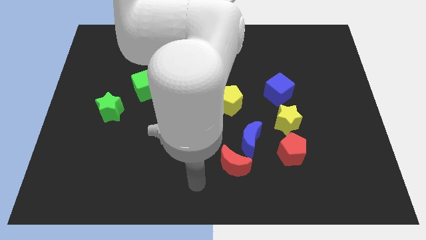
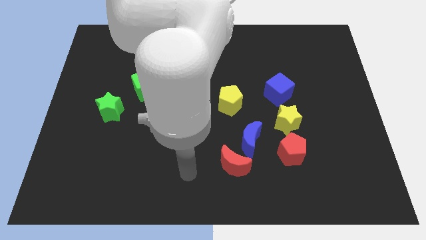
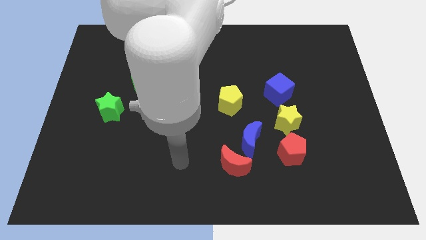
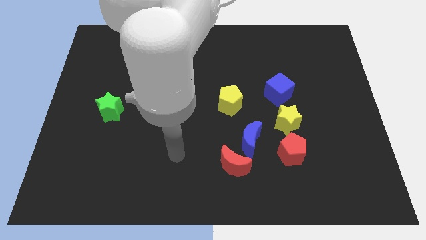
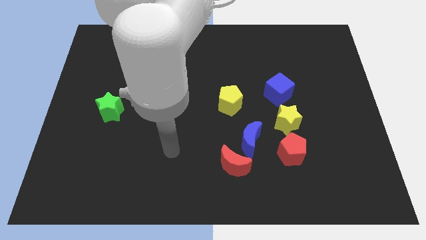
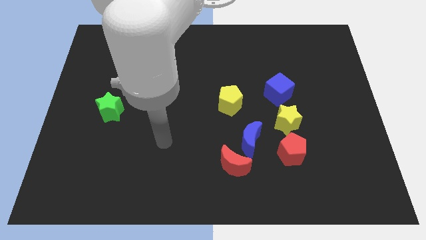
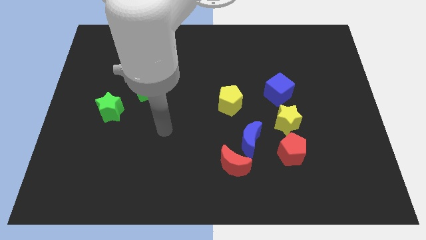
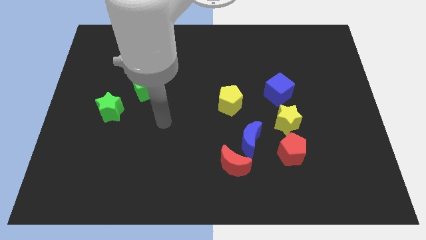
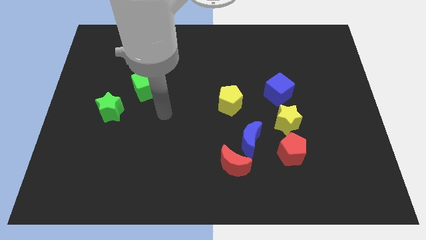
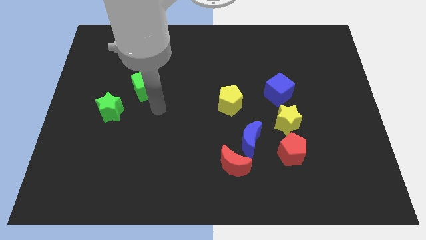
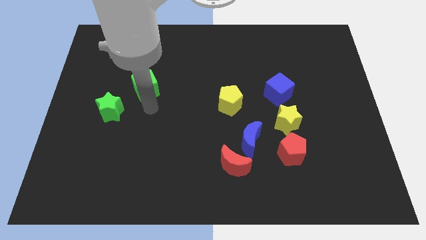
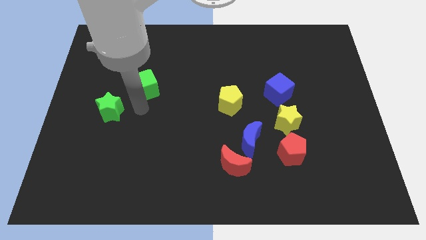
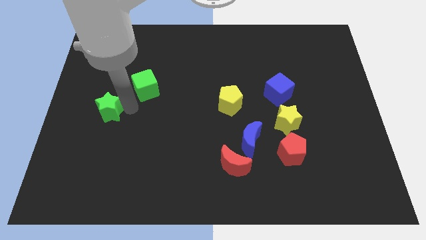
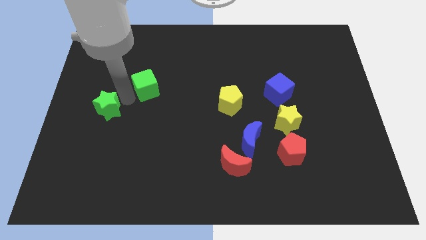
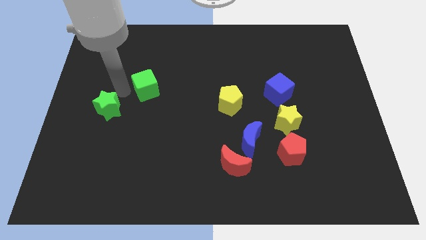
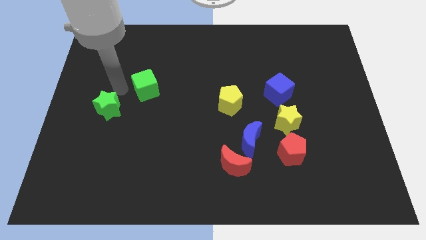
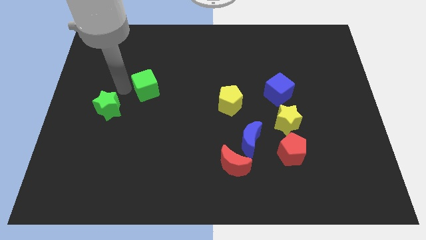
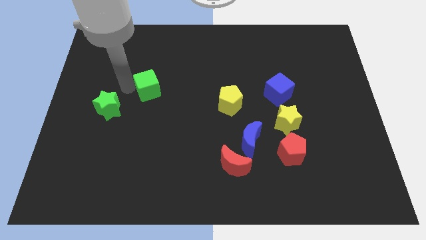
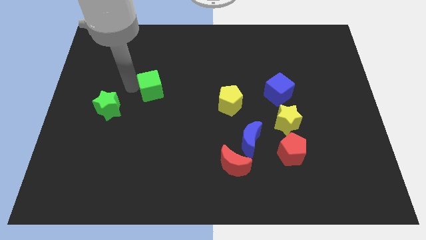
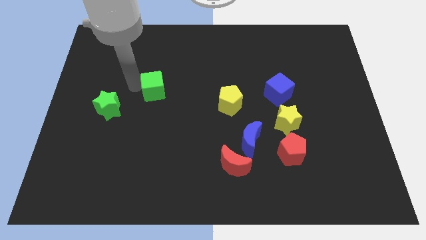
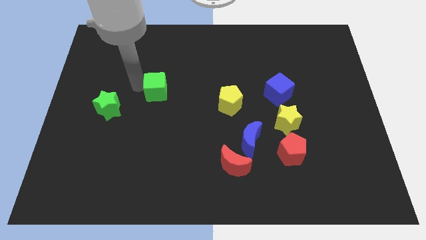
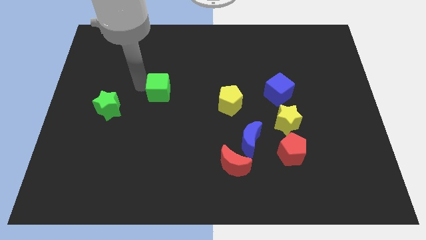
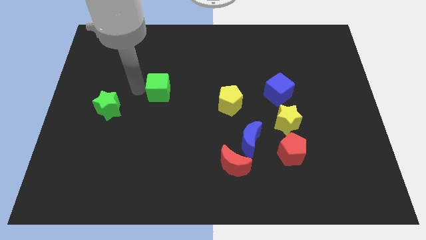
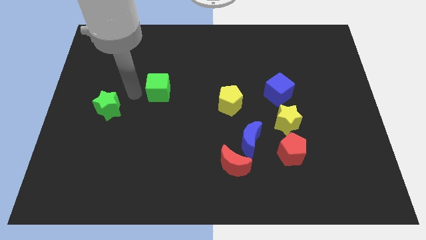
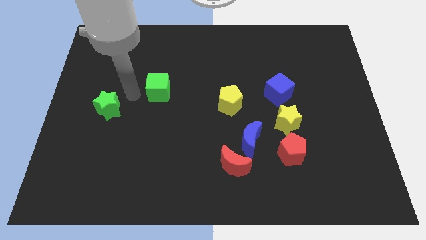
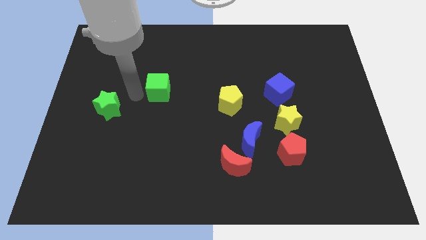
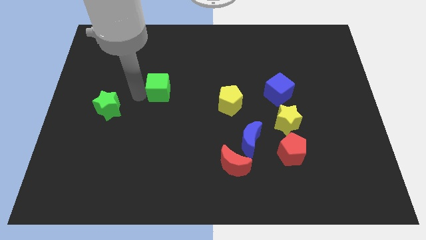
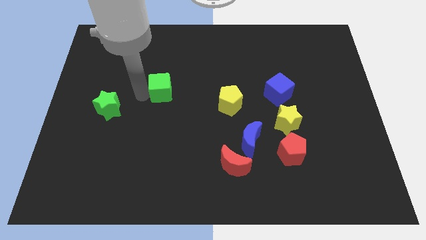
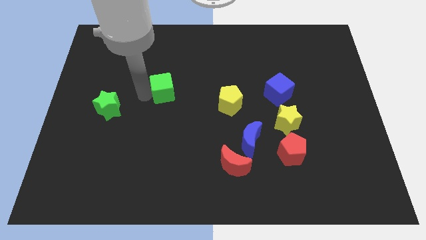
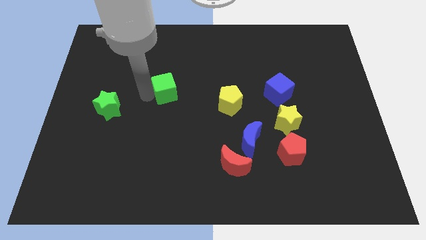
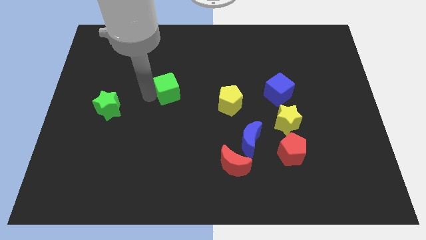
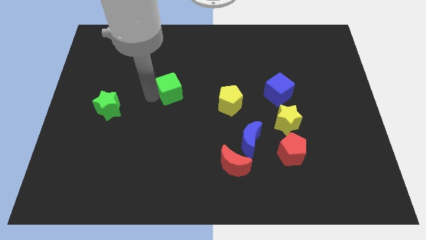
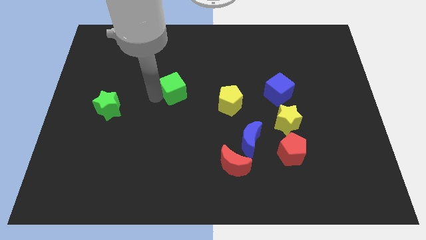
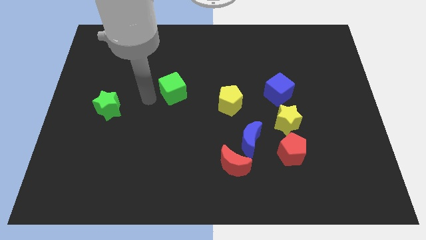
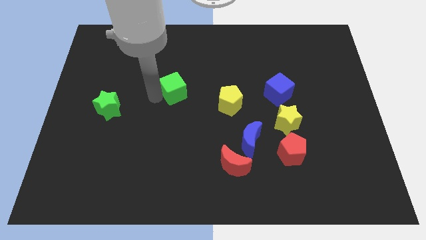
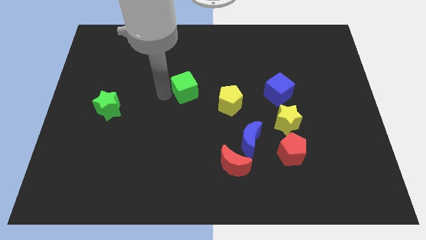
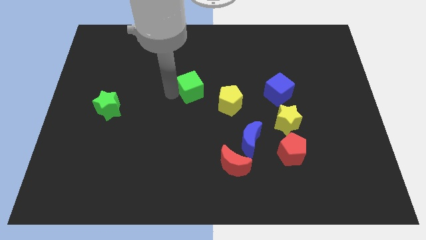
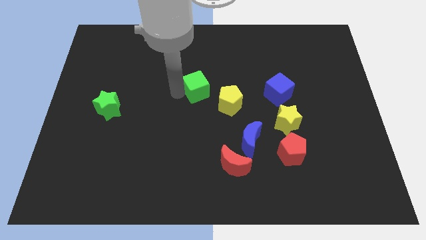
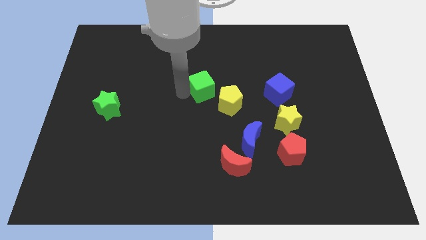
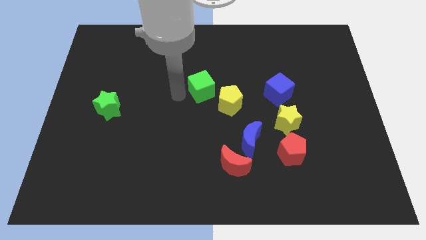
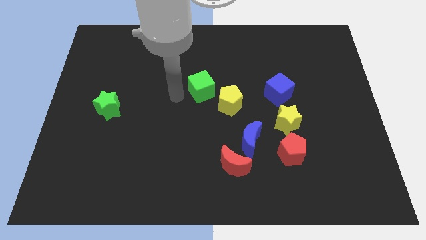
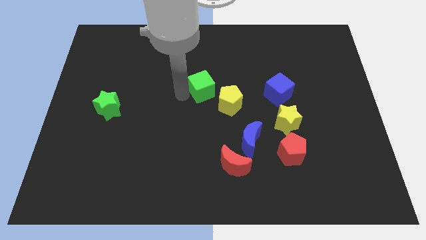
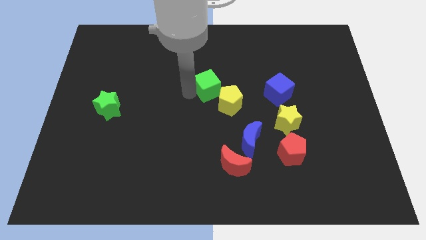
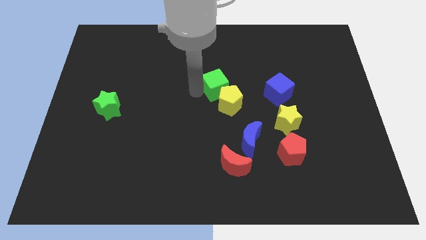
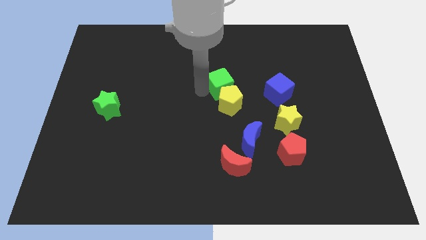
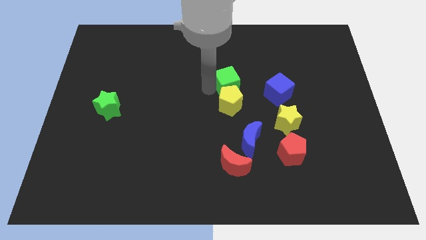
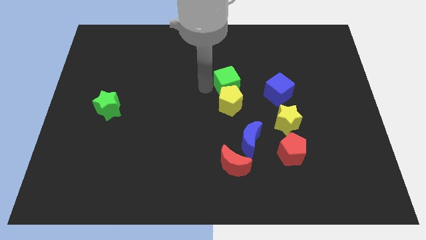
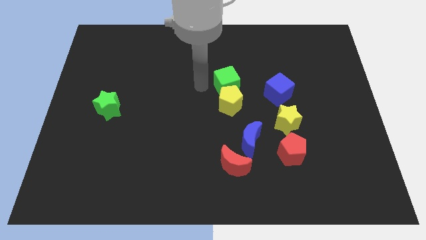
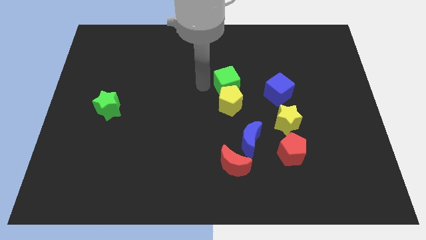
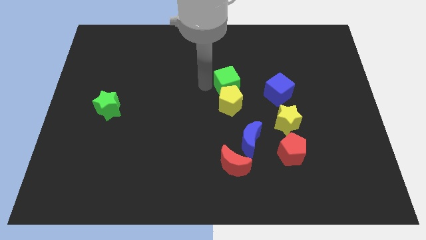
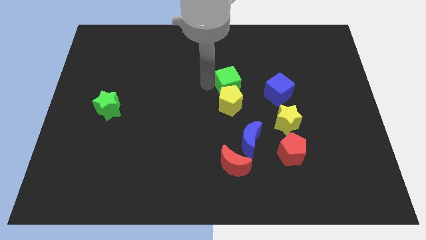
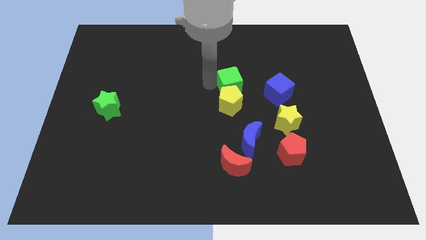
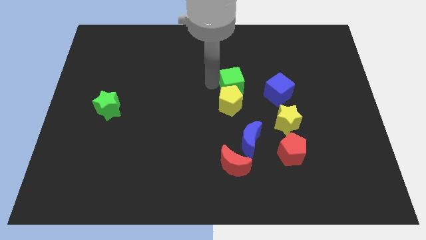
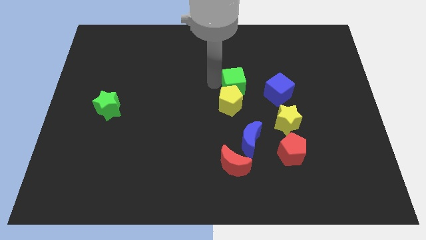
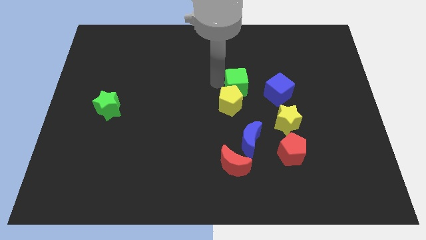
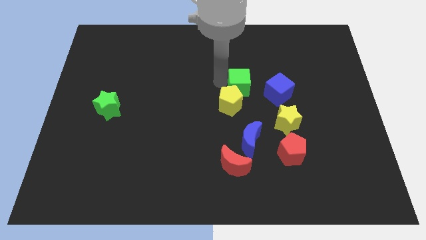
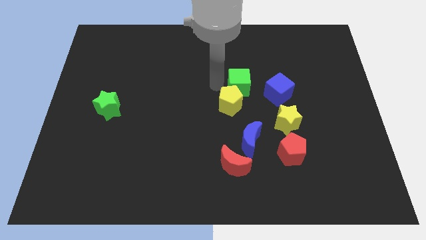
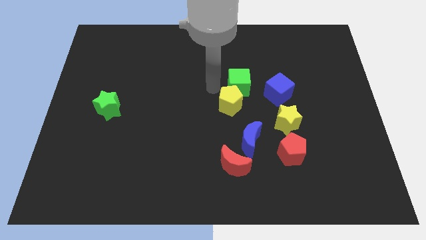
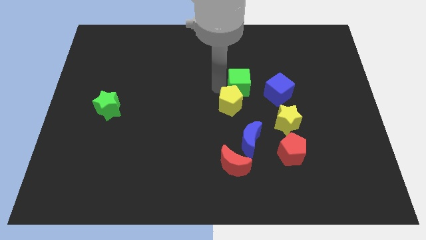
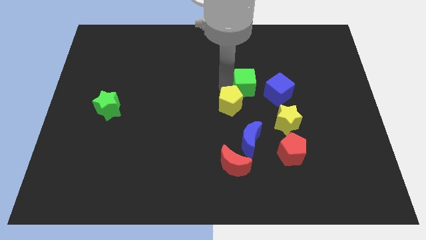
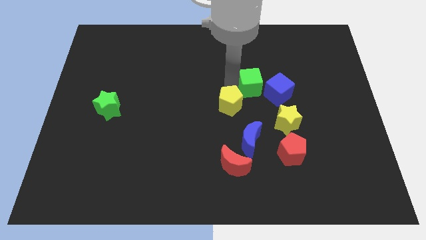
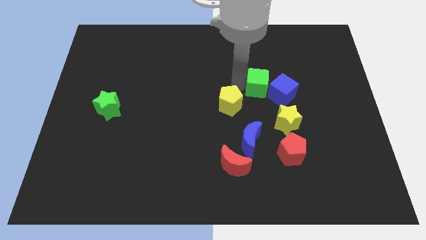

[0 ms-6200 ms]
slide the green cube close to the blue cube

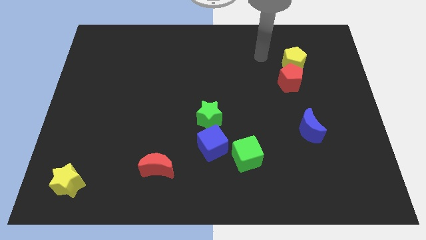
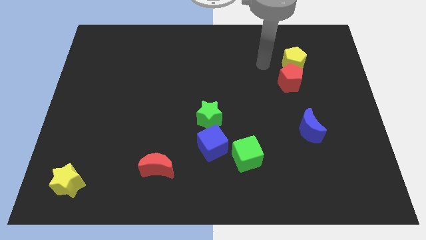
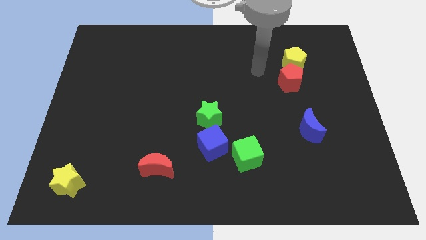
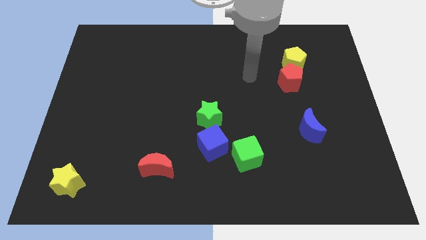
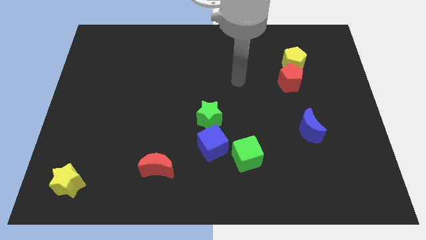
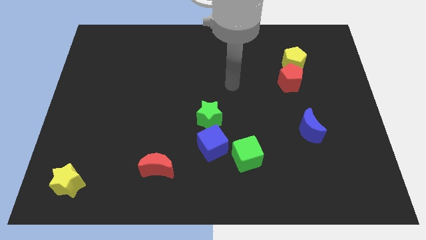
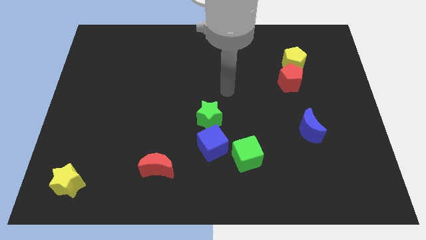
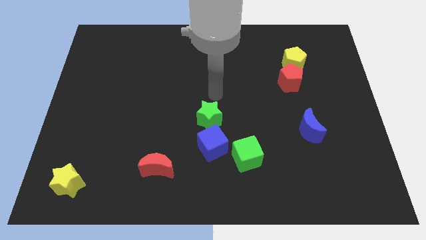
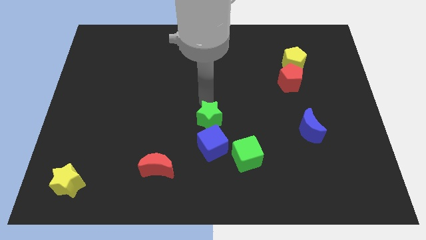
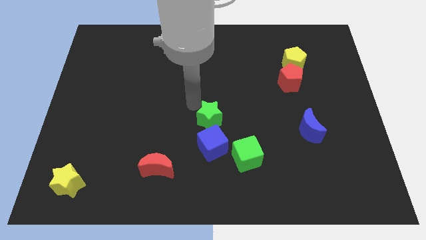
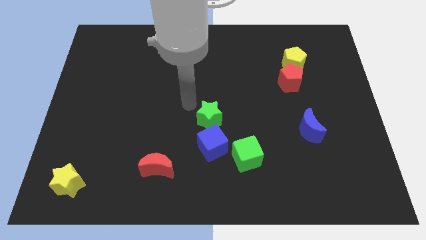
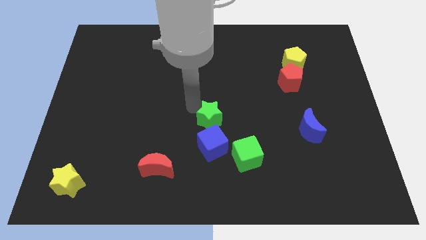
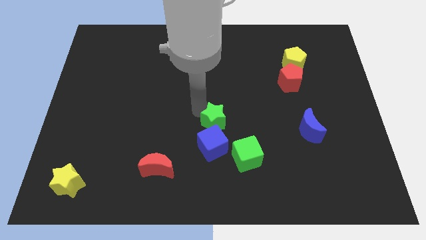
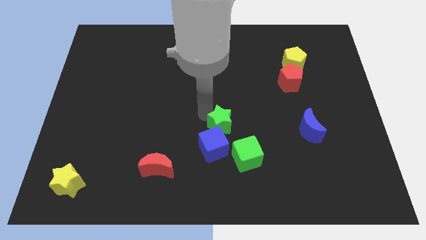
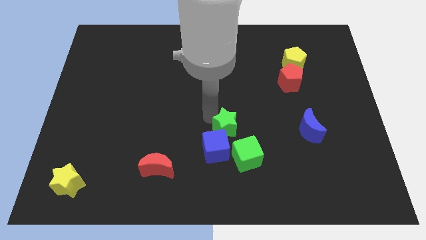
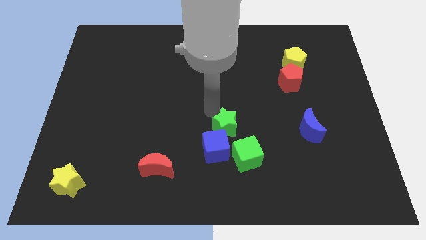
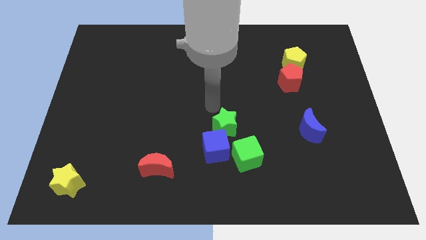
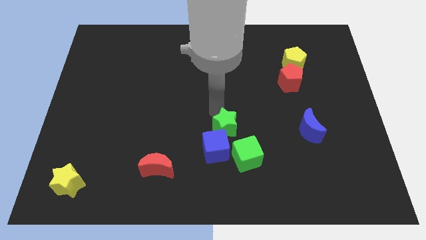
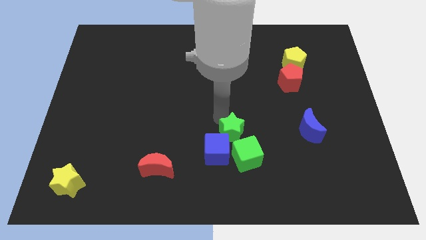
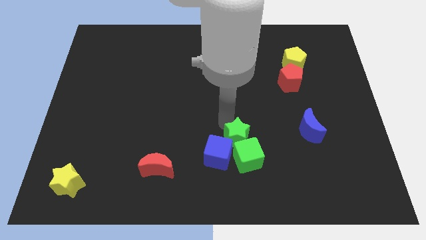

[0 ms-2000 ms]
slide the green star close to the green cube

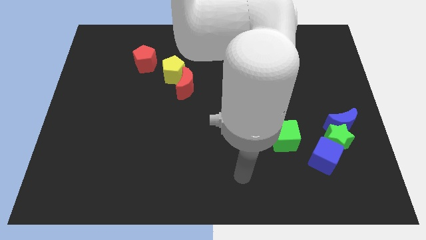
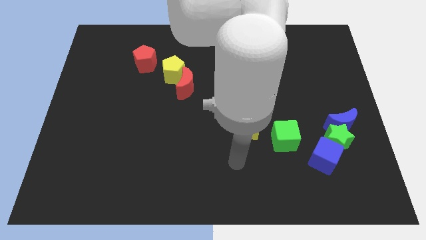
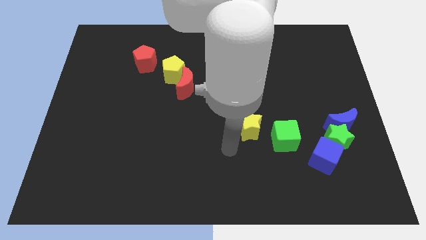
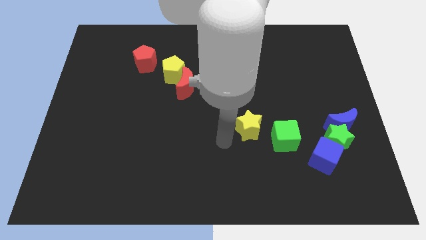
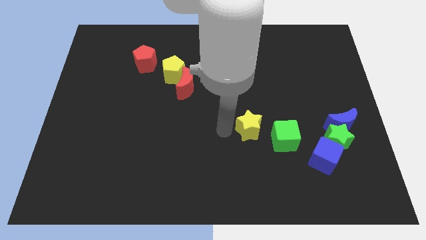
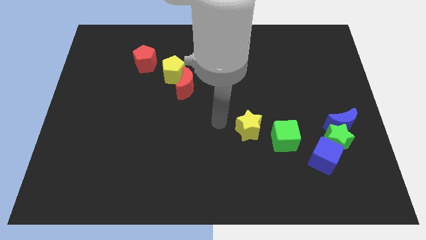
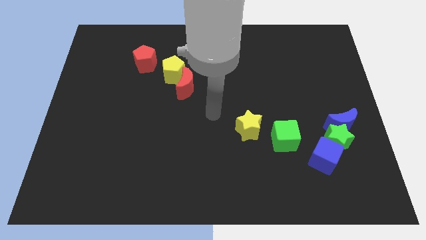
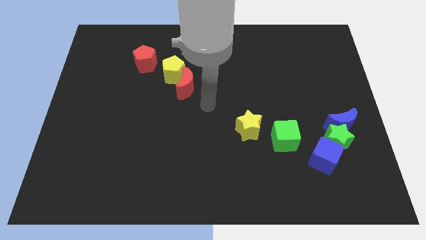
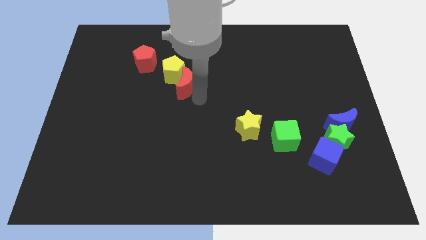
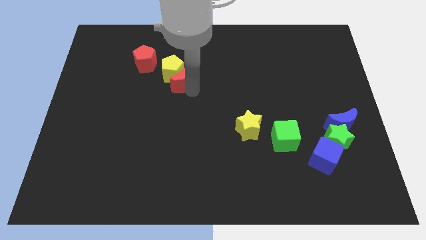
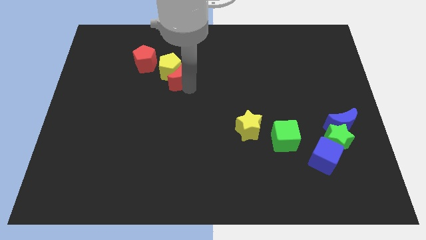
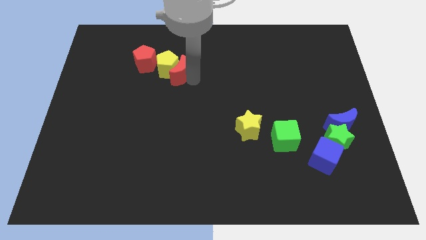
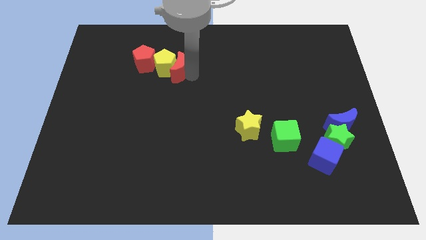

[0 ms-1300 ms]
slide the yellow pentagon to the red pentagon
